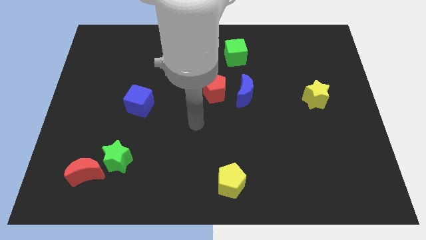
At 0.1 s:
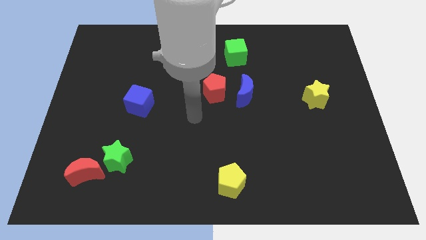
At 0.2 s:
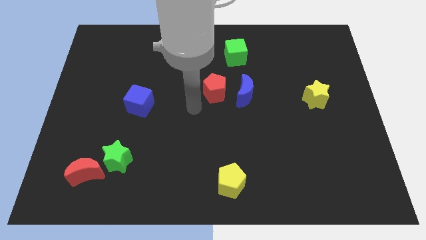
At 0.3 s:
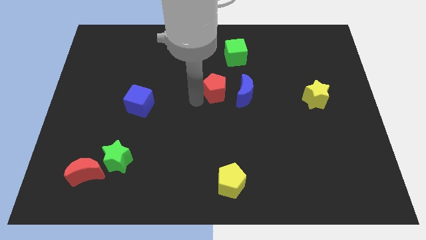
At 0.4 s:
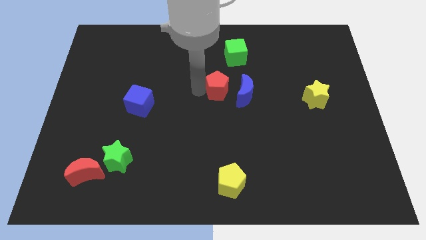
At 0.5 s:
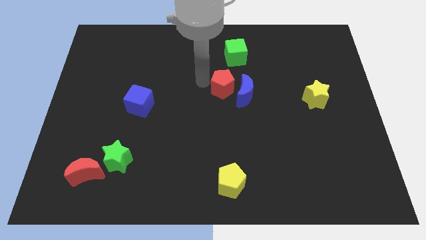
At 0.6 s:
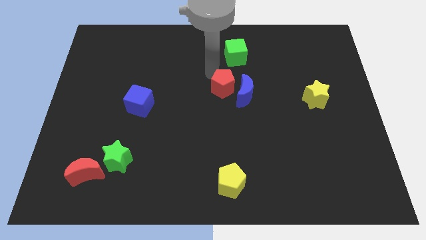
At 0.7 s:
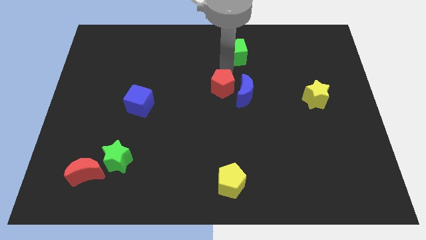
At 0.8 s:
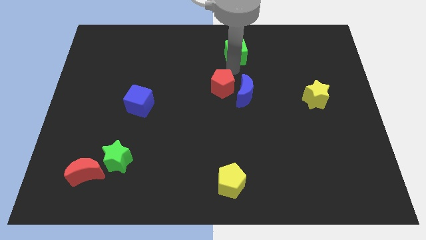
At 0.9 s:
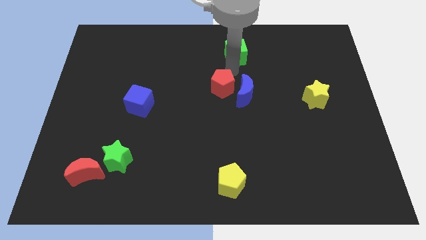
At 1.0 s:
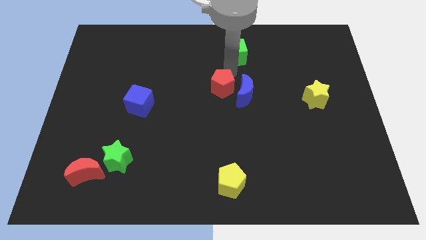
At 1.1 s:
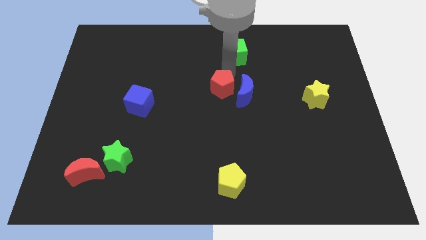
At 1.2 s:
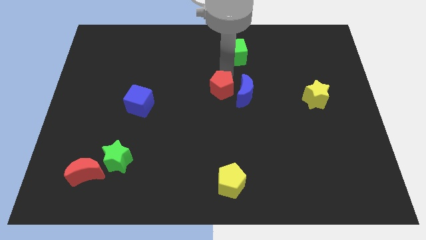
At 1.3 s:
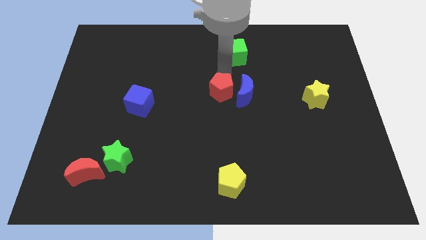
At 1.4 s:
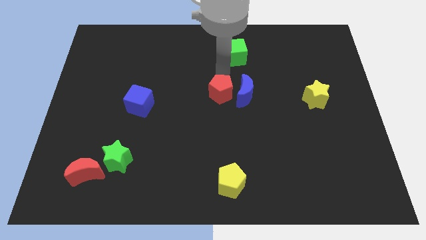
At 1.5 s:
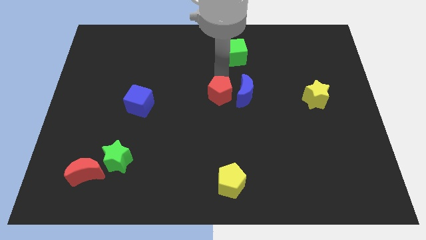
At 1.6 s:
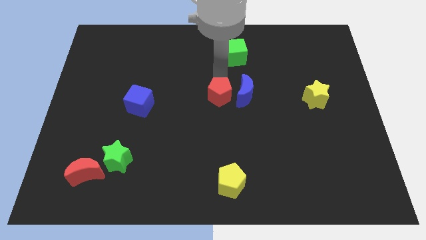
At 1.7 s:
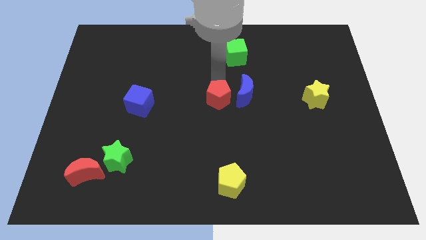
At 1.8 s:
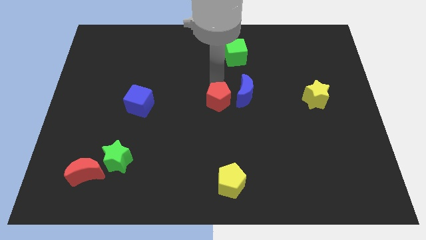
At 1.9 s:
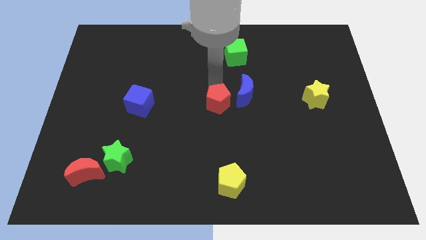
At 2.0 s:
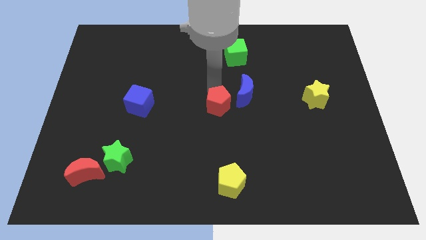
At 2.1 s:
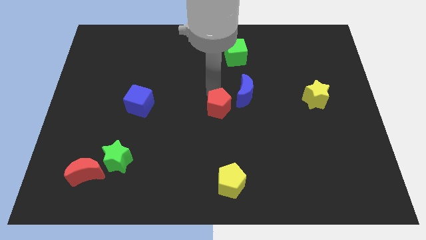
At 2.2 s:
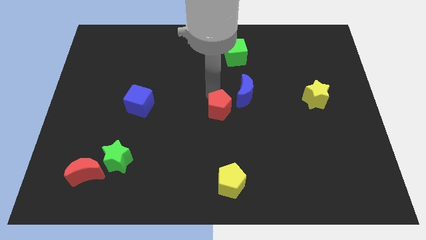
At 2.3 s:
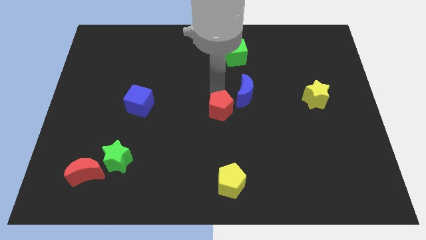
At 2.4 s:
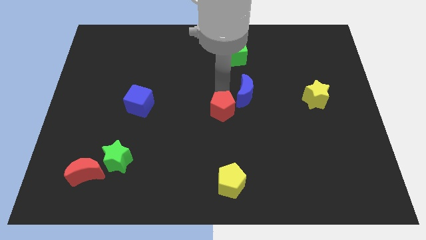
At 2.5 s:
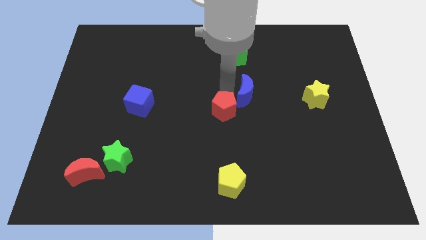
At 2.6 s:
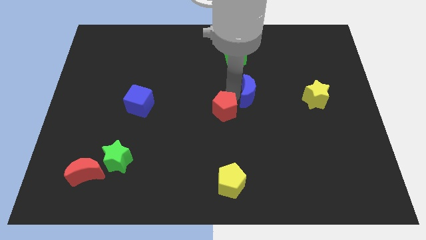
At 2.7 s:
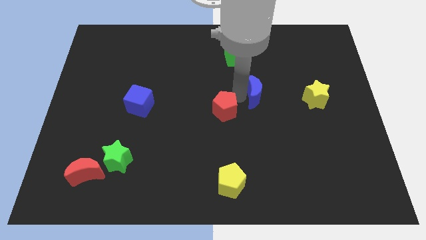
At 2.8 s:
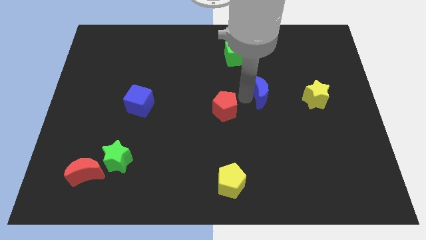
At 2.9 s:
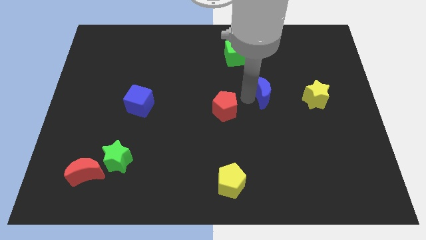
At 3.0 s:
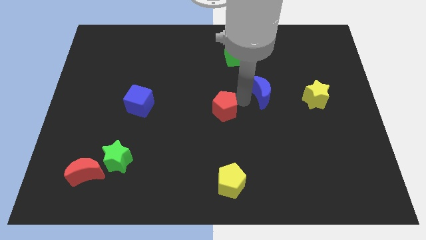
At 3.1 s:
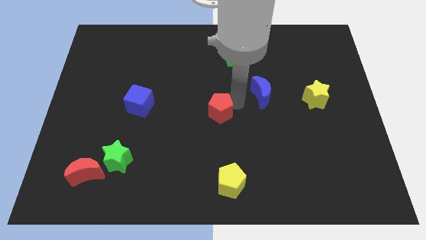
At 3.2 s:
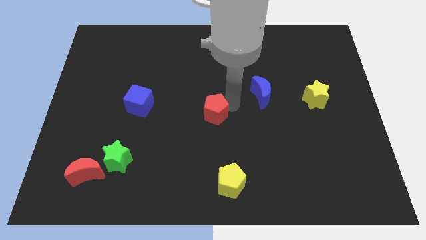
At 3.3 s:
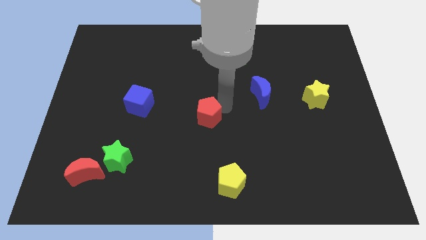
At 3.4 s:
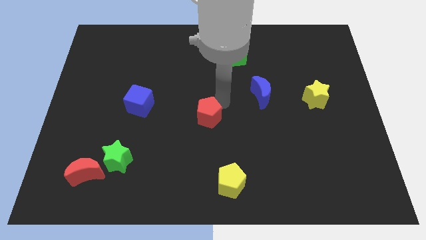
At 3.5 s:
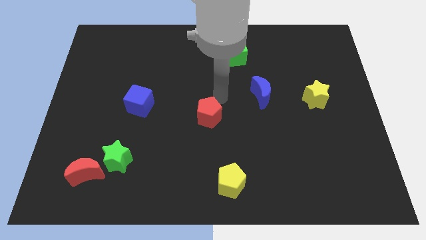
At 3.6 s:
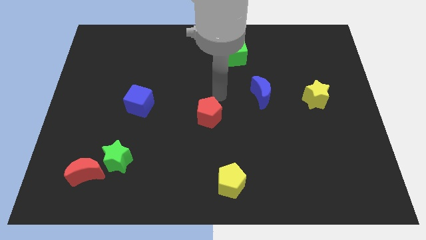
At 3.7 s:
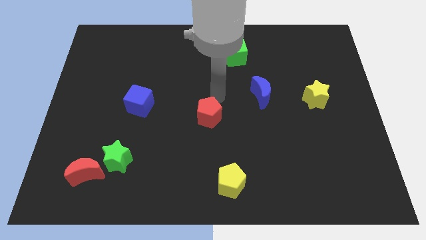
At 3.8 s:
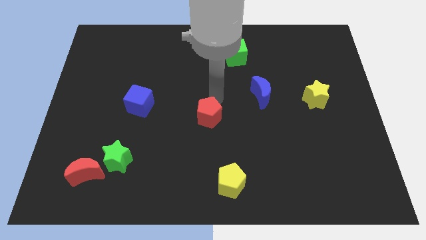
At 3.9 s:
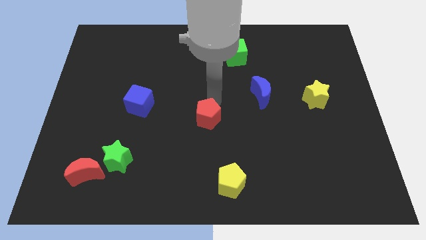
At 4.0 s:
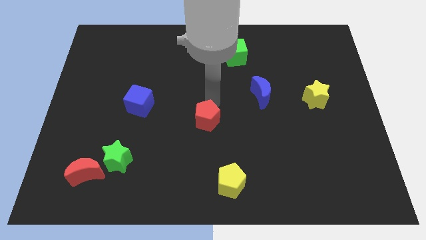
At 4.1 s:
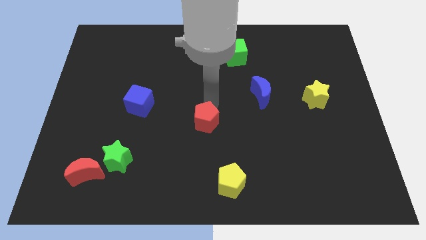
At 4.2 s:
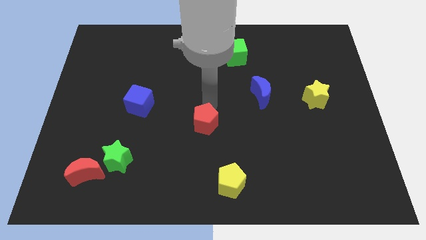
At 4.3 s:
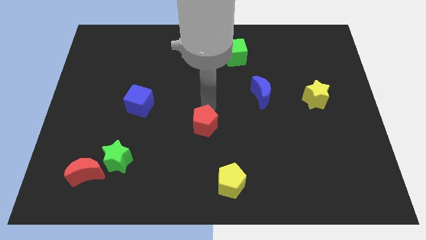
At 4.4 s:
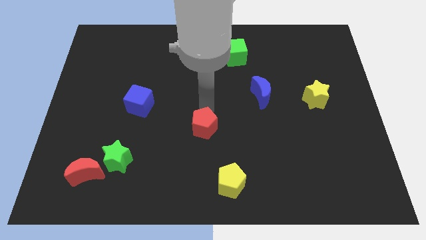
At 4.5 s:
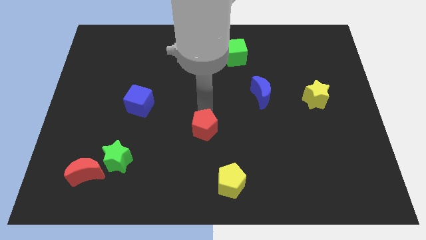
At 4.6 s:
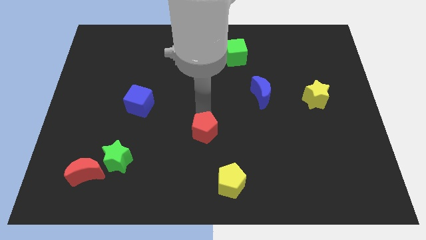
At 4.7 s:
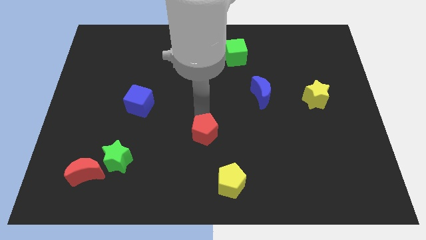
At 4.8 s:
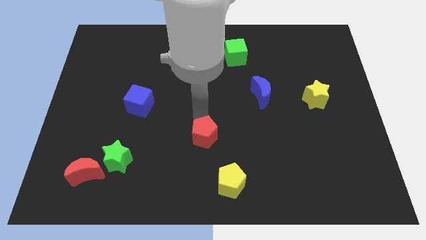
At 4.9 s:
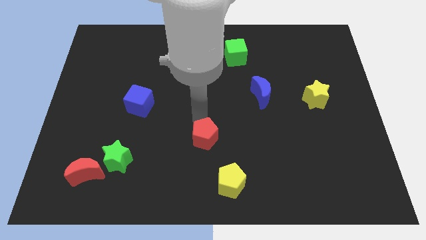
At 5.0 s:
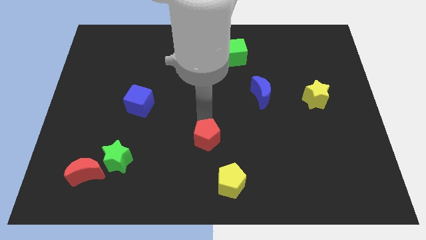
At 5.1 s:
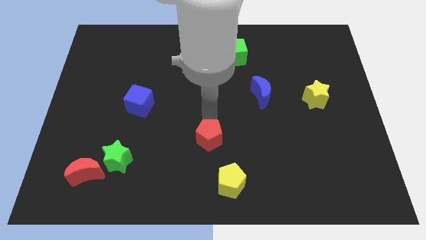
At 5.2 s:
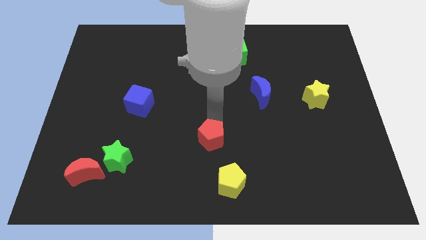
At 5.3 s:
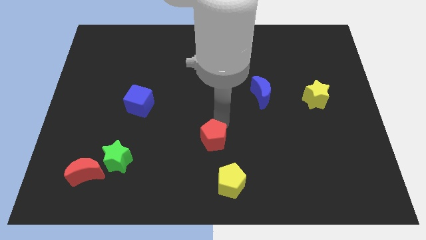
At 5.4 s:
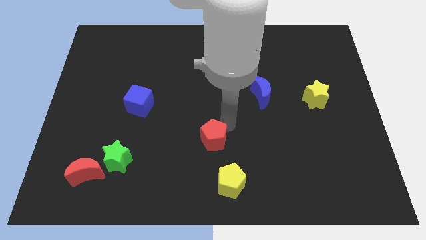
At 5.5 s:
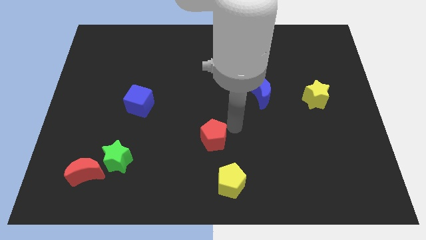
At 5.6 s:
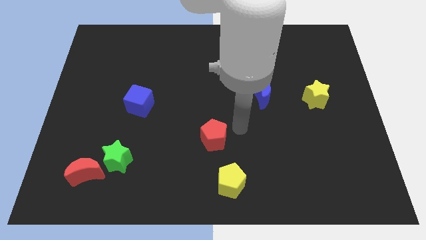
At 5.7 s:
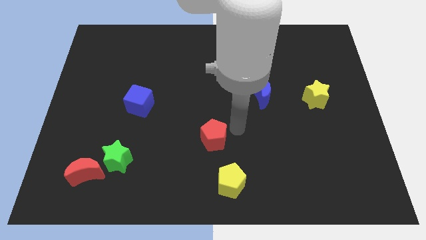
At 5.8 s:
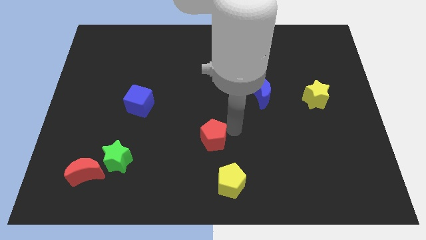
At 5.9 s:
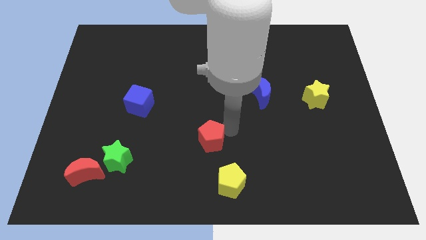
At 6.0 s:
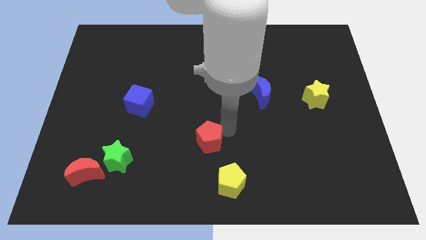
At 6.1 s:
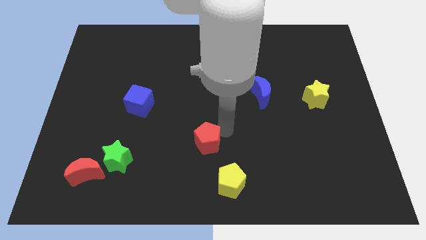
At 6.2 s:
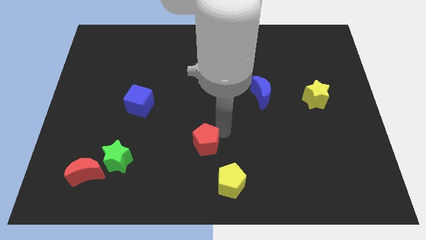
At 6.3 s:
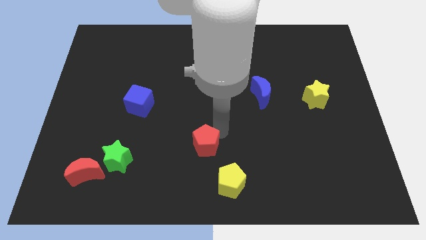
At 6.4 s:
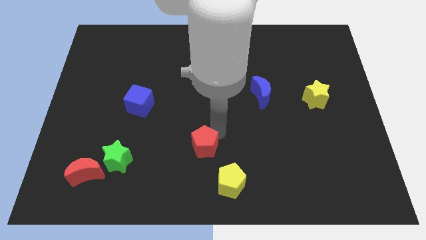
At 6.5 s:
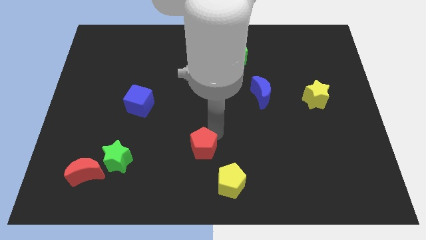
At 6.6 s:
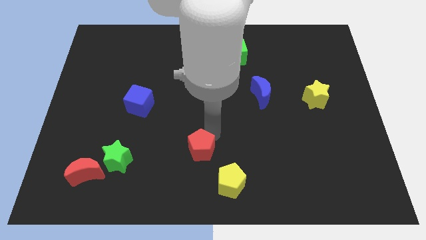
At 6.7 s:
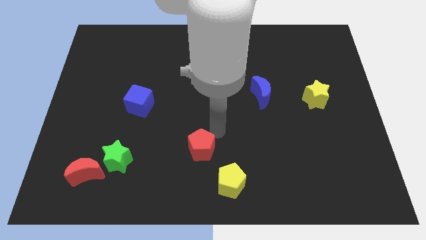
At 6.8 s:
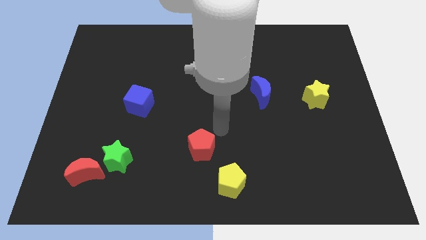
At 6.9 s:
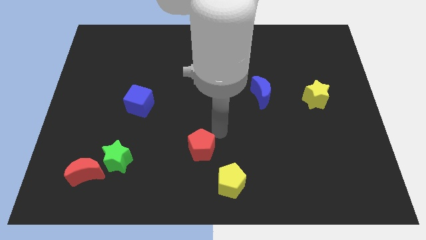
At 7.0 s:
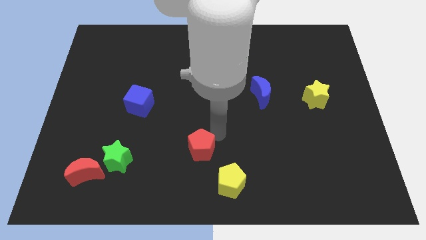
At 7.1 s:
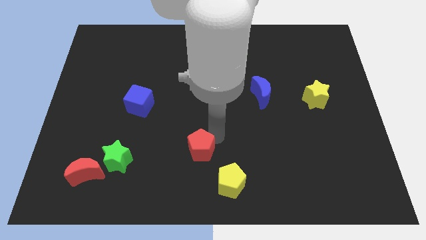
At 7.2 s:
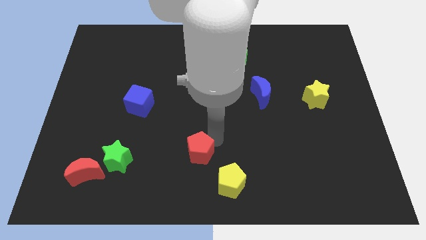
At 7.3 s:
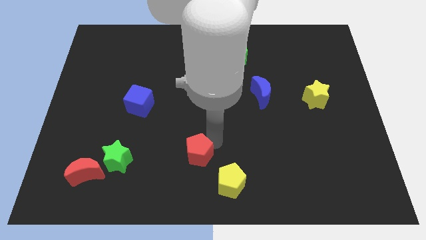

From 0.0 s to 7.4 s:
slide the red pentagon to the bottom
